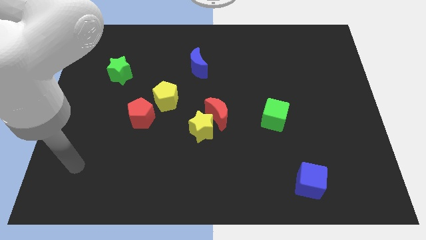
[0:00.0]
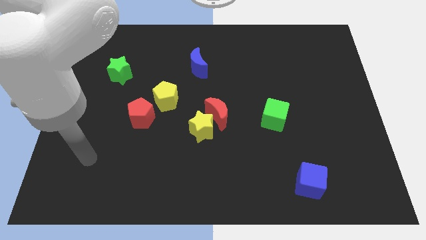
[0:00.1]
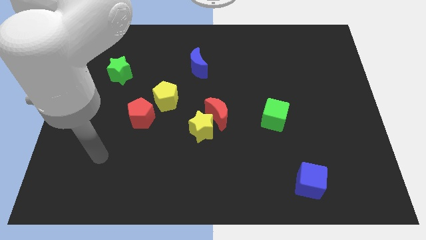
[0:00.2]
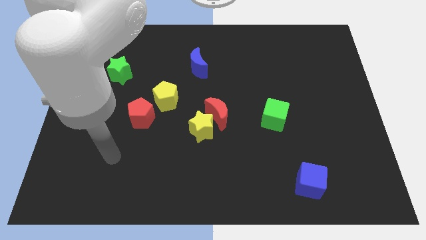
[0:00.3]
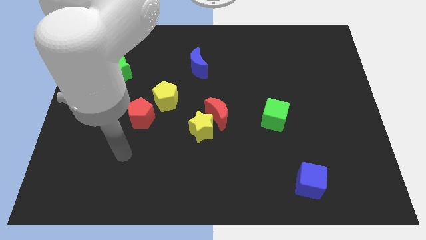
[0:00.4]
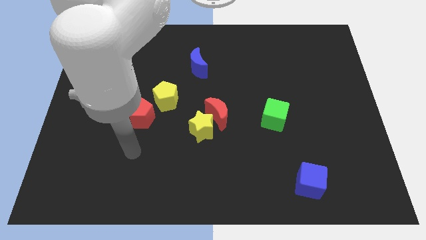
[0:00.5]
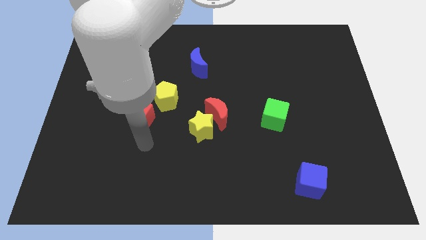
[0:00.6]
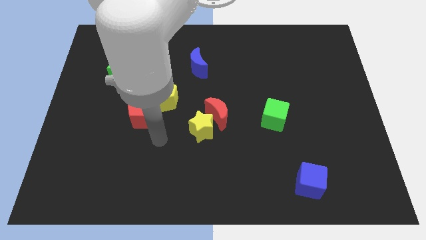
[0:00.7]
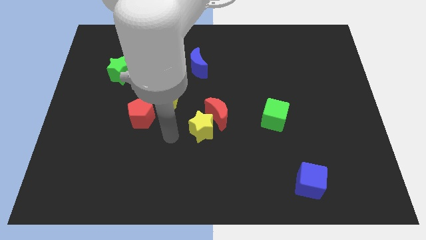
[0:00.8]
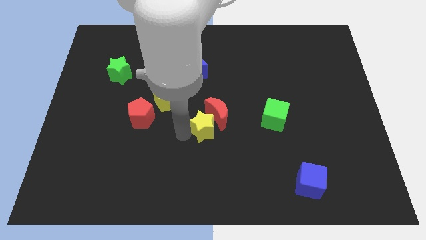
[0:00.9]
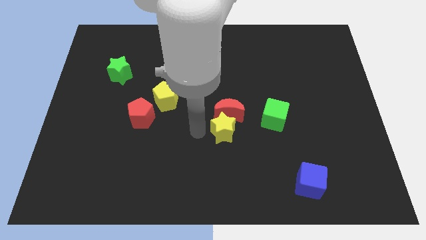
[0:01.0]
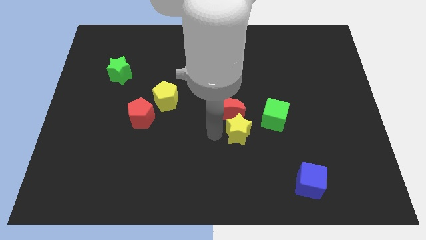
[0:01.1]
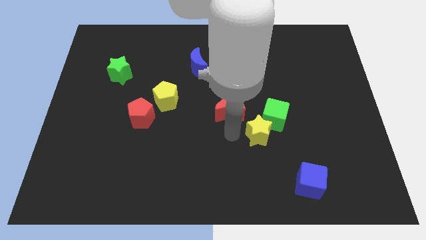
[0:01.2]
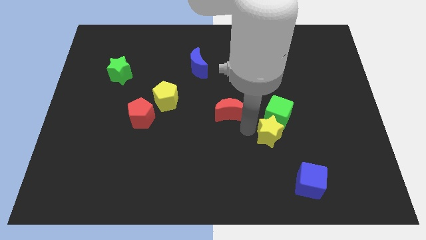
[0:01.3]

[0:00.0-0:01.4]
move the red moon away from the yellow star

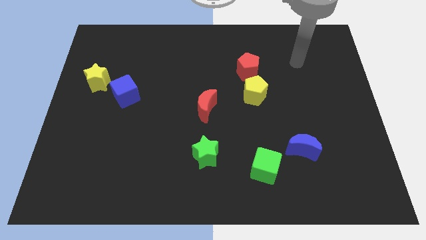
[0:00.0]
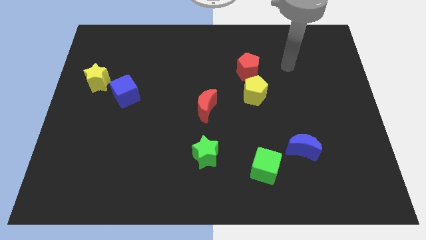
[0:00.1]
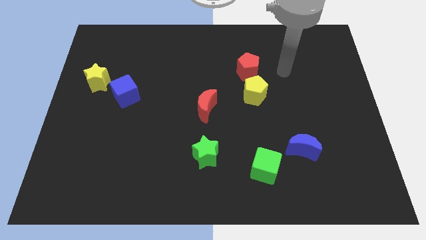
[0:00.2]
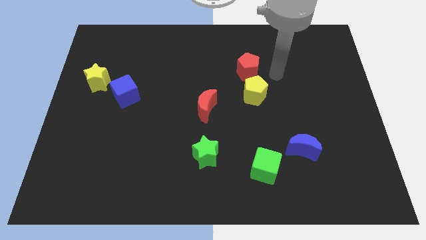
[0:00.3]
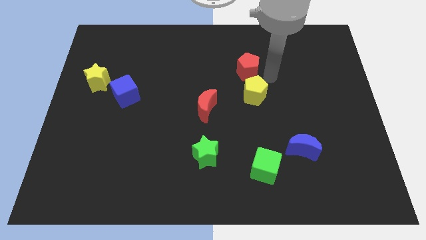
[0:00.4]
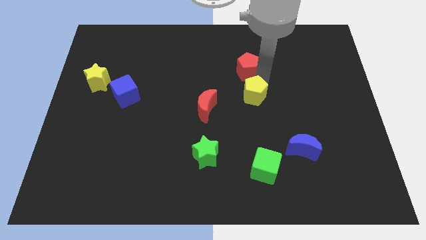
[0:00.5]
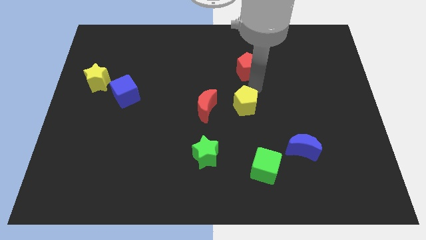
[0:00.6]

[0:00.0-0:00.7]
separate the red pentagon from the yellow pentagon

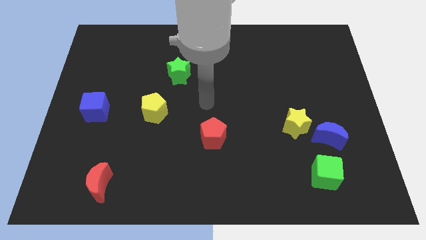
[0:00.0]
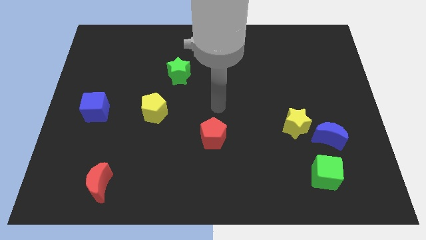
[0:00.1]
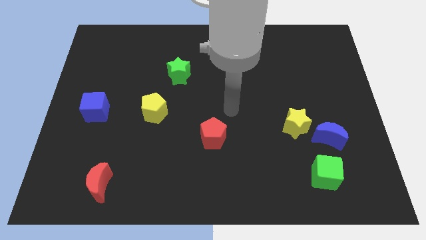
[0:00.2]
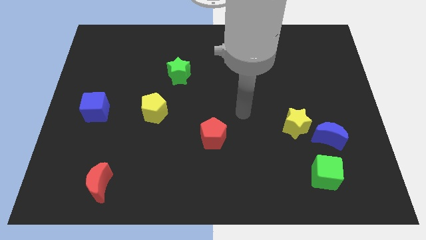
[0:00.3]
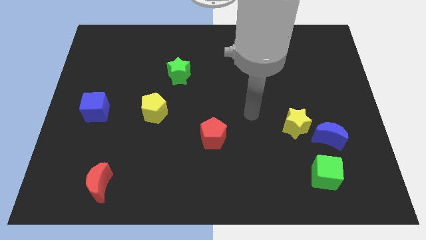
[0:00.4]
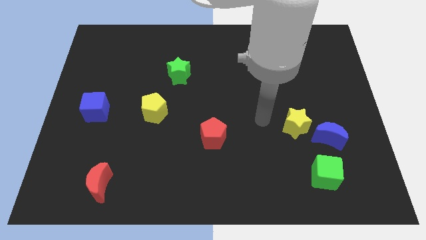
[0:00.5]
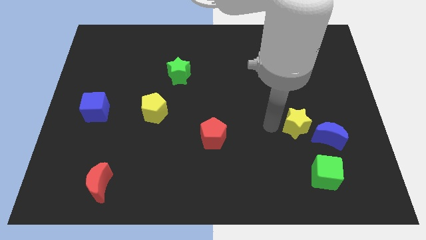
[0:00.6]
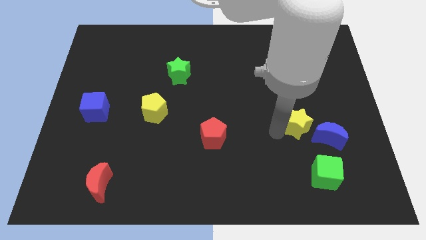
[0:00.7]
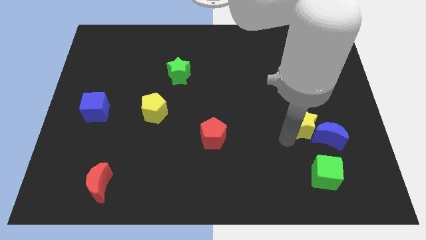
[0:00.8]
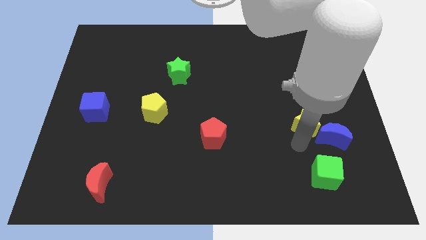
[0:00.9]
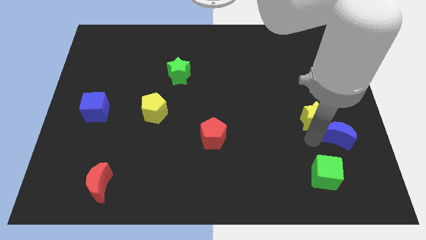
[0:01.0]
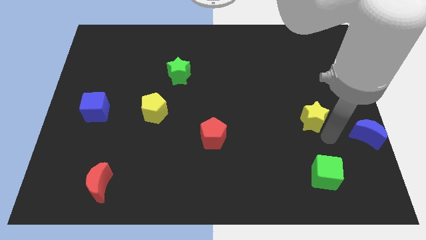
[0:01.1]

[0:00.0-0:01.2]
pull the yellow star apart from the blue moon

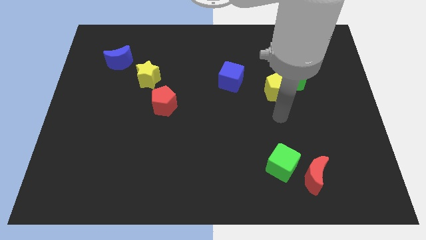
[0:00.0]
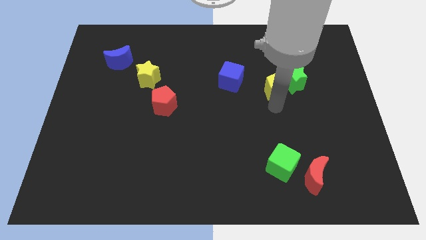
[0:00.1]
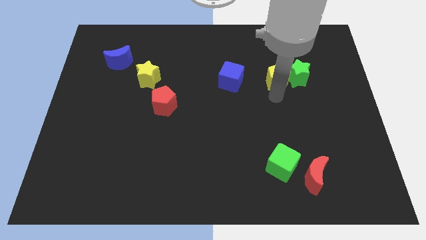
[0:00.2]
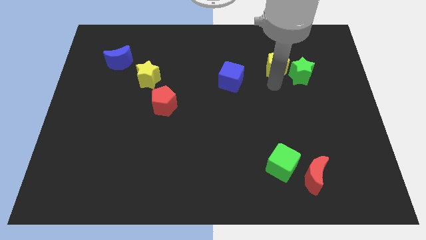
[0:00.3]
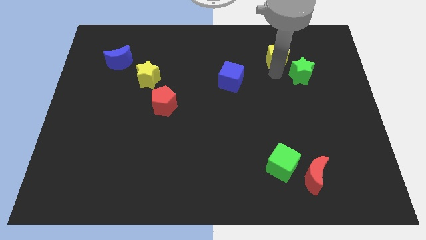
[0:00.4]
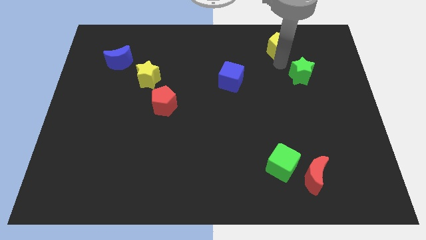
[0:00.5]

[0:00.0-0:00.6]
move the green star away from the yellow pentagon

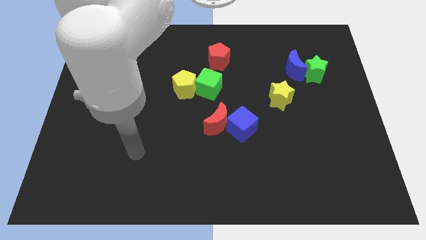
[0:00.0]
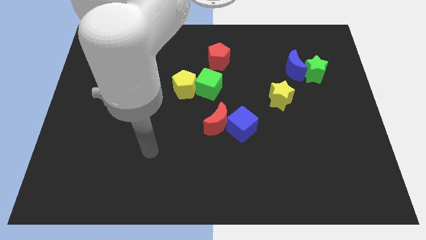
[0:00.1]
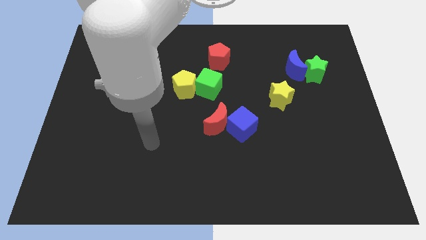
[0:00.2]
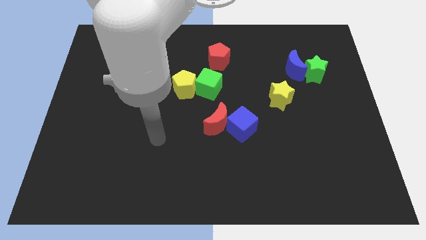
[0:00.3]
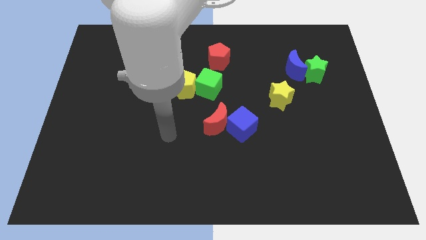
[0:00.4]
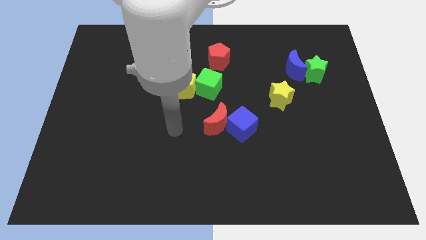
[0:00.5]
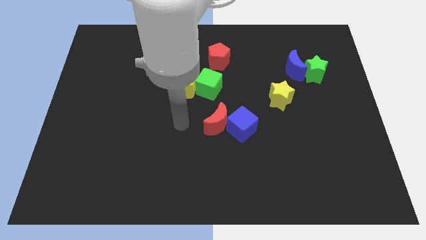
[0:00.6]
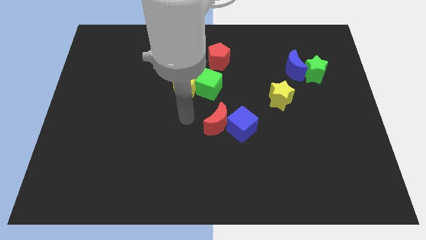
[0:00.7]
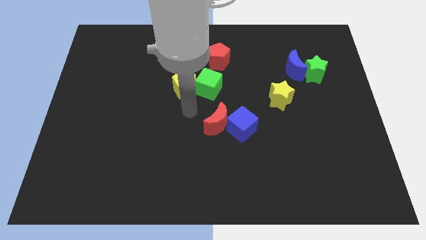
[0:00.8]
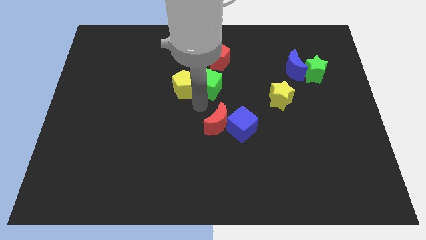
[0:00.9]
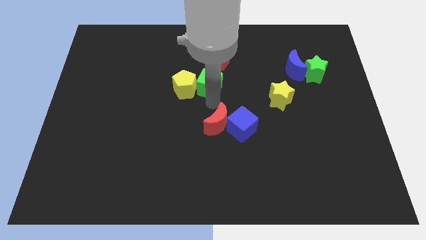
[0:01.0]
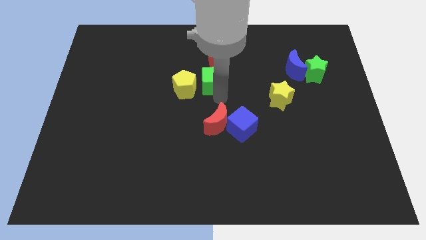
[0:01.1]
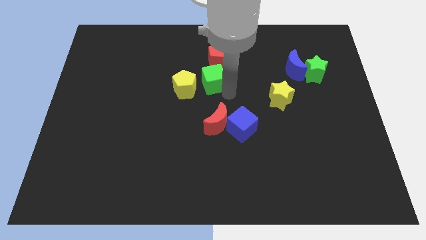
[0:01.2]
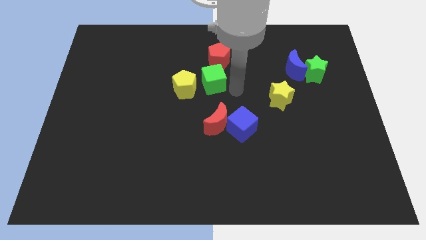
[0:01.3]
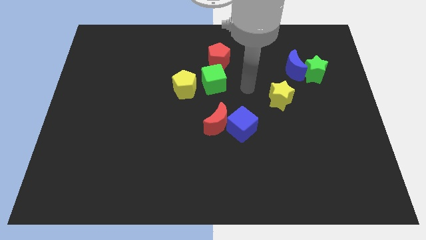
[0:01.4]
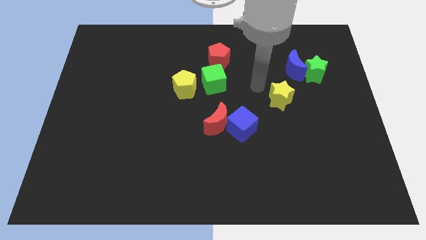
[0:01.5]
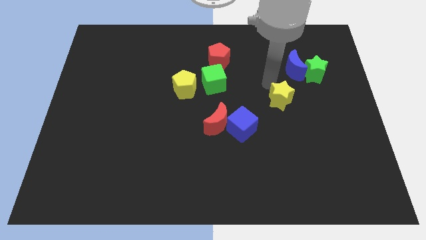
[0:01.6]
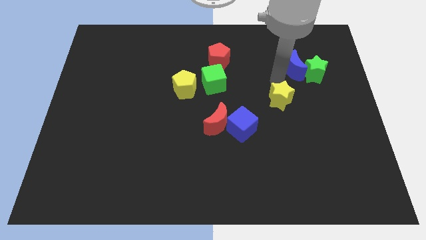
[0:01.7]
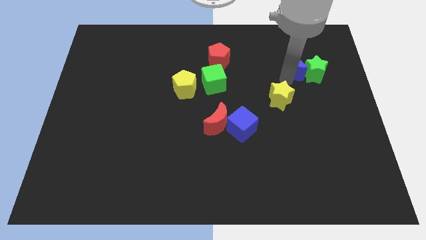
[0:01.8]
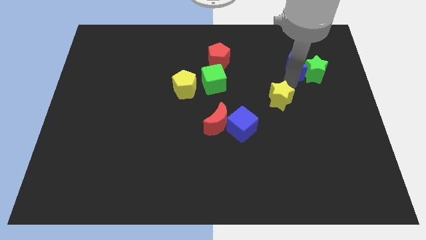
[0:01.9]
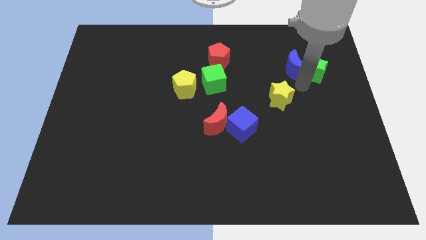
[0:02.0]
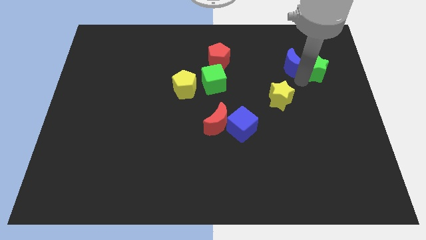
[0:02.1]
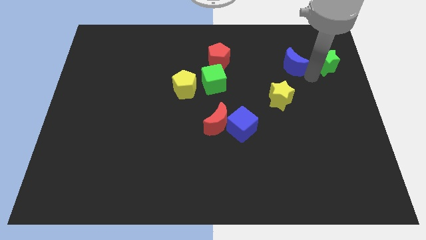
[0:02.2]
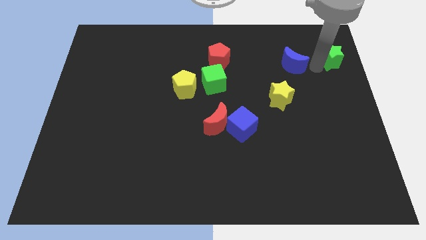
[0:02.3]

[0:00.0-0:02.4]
move the blue moon away from the green star

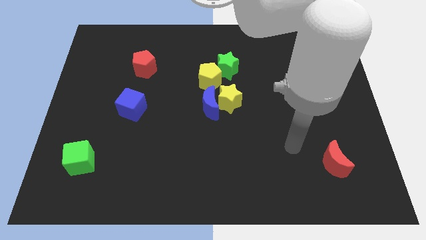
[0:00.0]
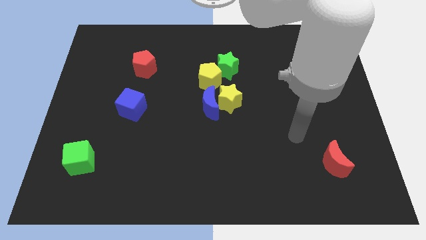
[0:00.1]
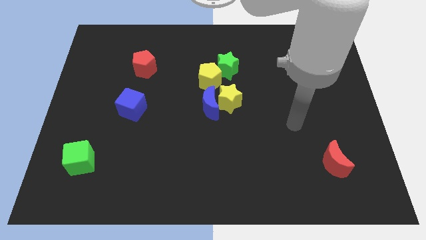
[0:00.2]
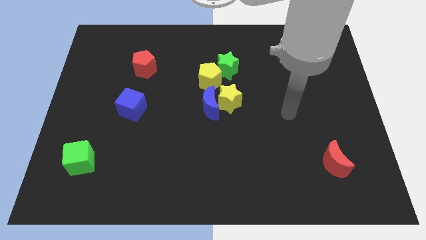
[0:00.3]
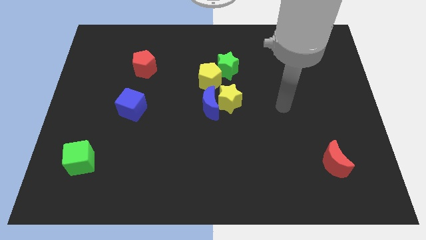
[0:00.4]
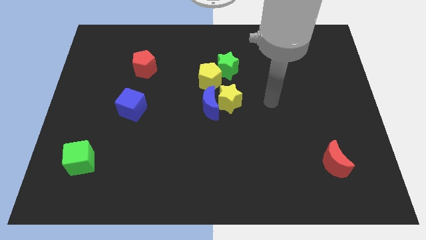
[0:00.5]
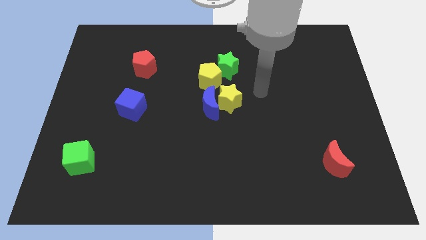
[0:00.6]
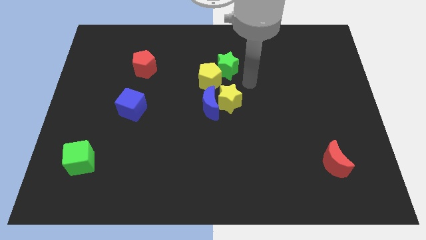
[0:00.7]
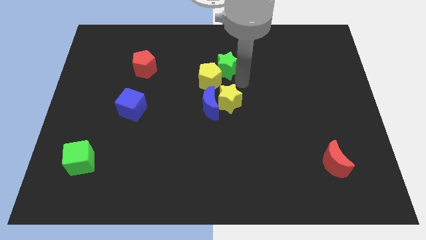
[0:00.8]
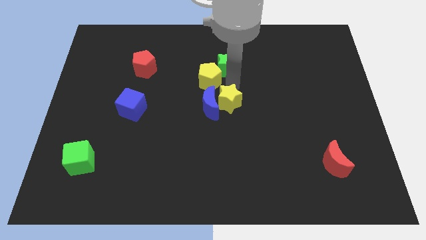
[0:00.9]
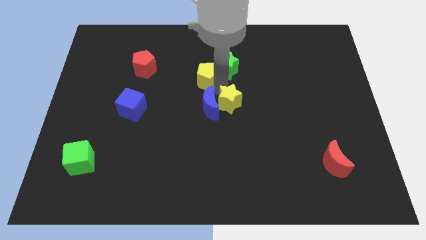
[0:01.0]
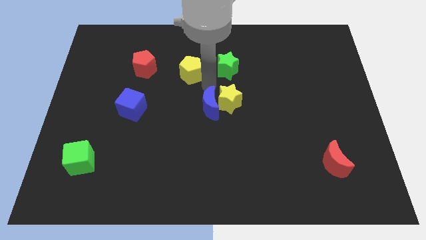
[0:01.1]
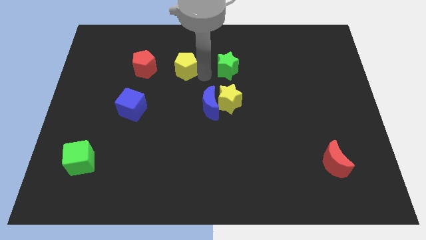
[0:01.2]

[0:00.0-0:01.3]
pull the green star apart from the yellow pentagon

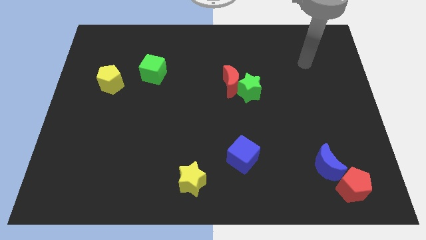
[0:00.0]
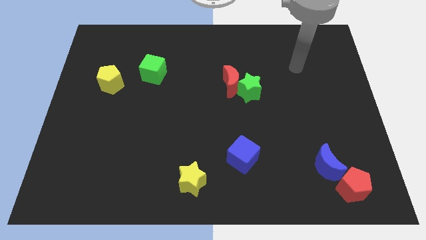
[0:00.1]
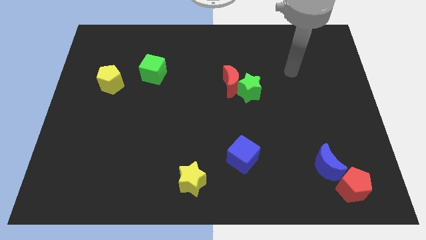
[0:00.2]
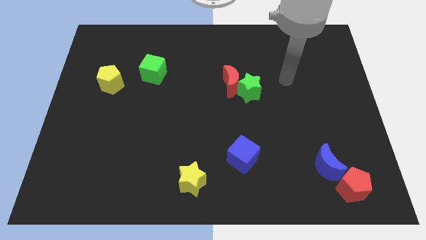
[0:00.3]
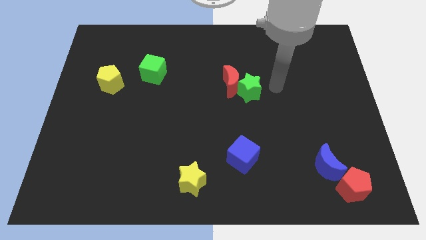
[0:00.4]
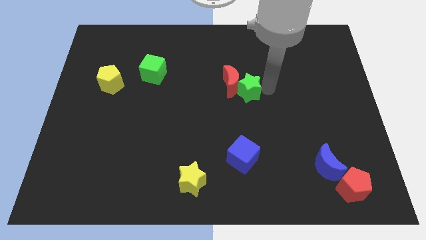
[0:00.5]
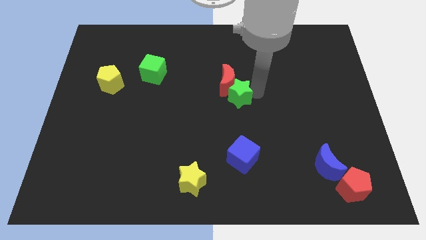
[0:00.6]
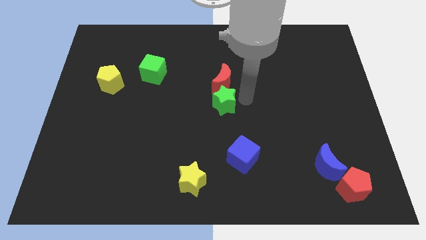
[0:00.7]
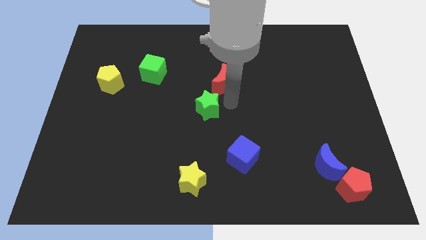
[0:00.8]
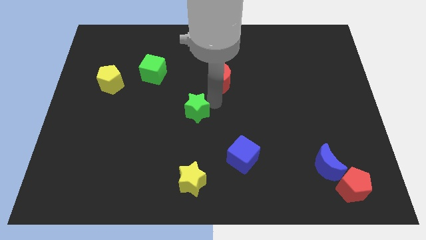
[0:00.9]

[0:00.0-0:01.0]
move the red moon away from the green star

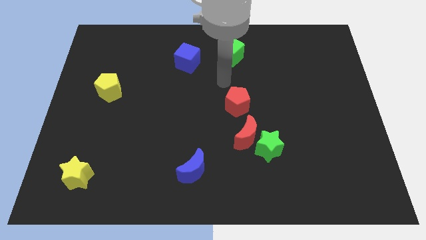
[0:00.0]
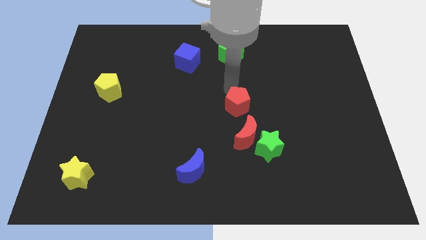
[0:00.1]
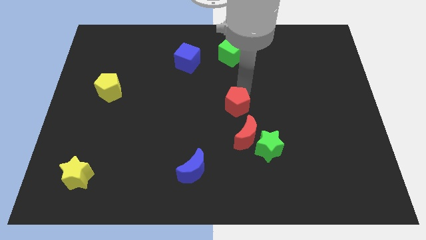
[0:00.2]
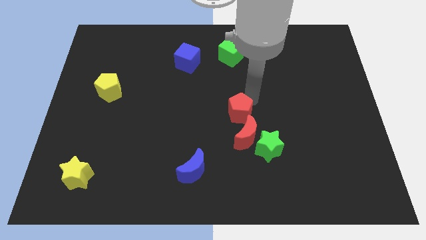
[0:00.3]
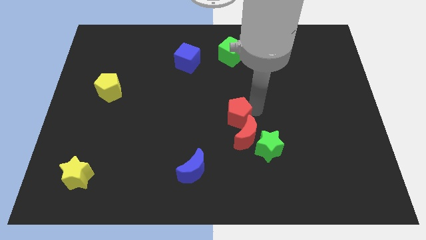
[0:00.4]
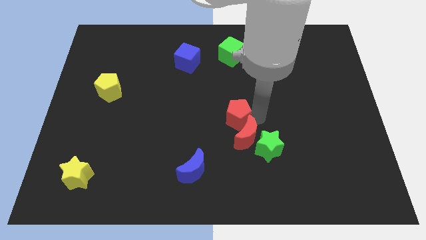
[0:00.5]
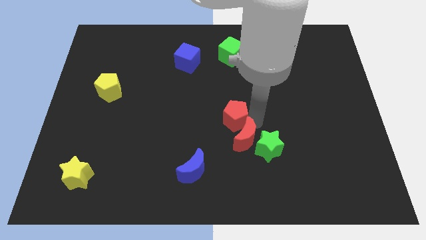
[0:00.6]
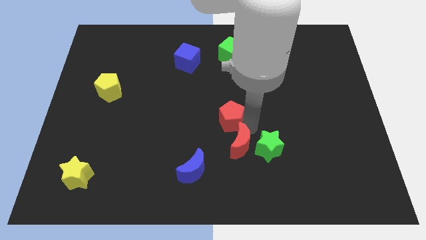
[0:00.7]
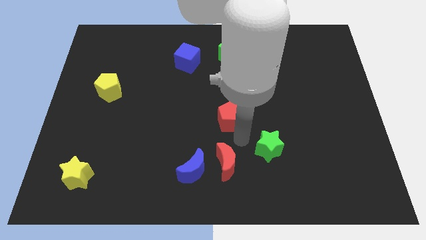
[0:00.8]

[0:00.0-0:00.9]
move the green star away from the red moon
